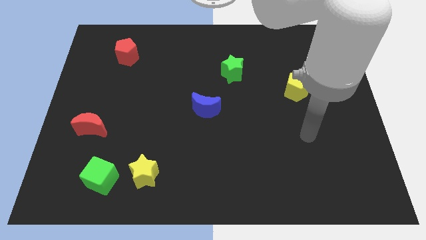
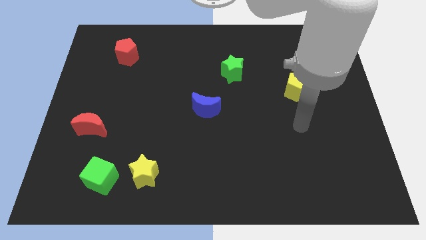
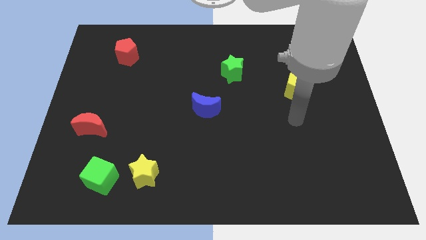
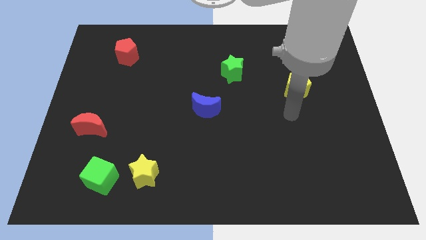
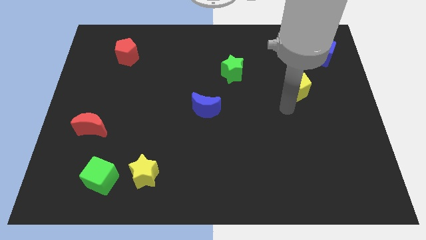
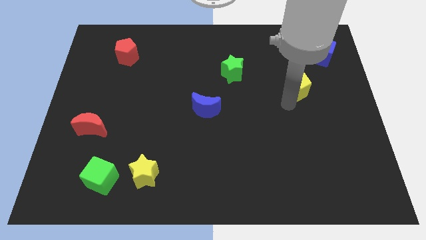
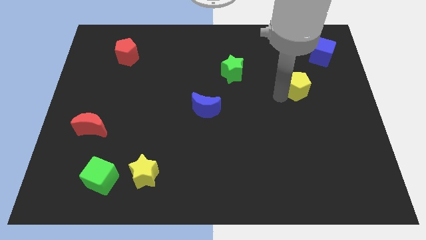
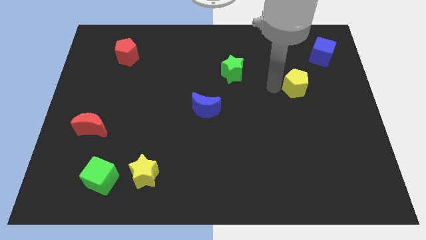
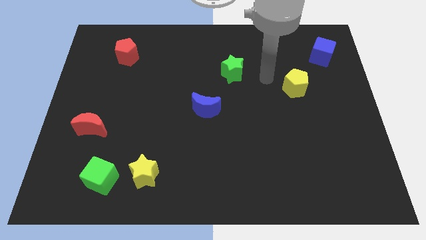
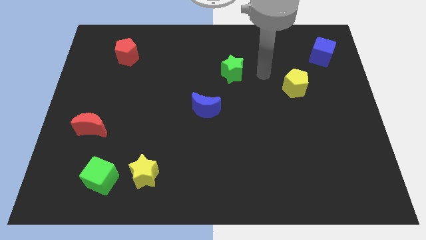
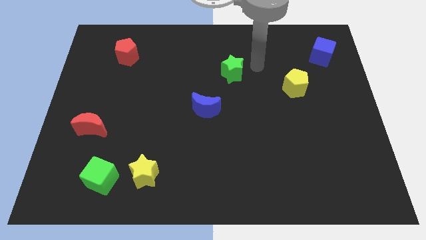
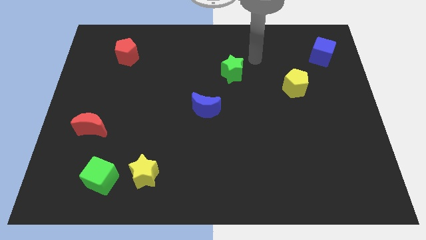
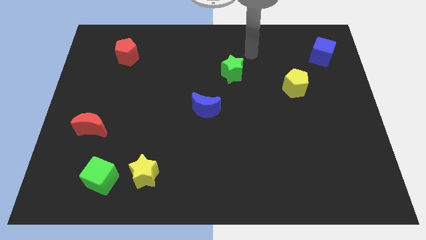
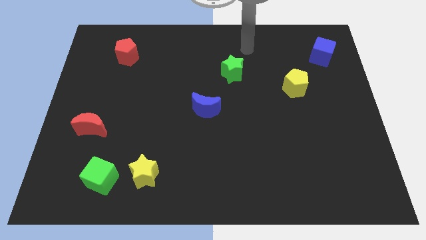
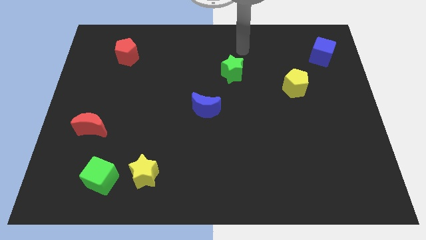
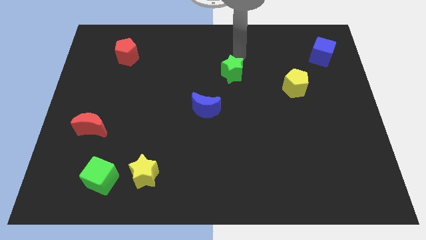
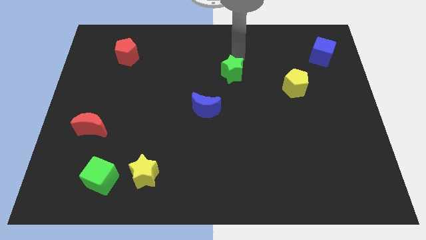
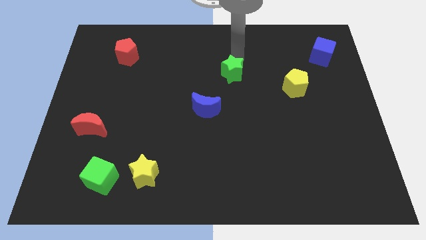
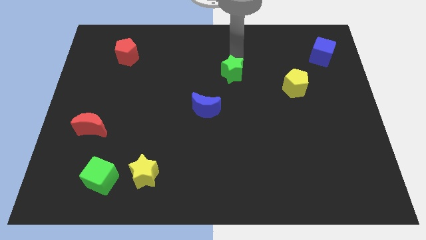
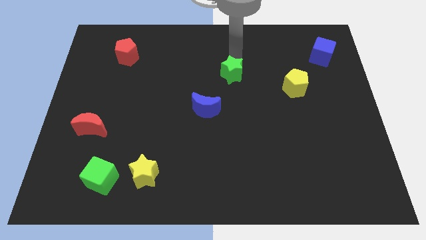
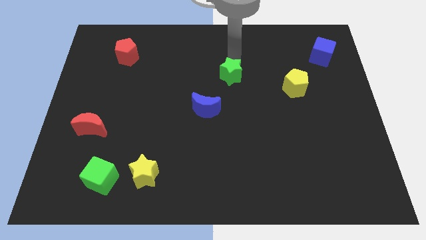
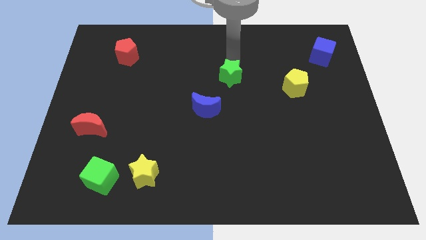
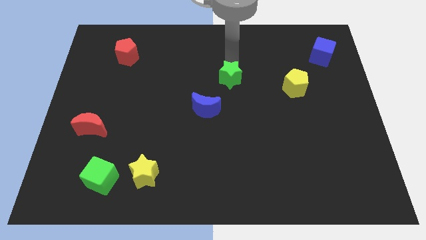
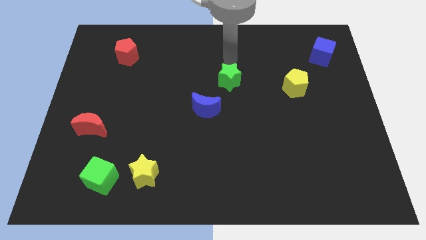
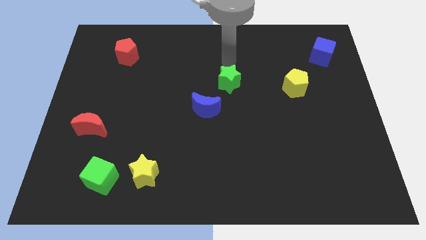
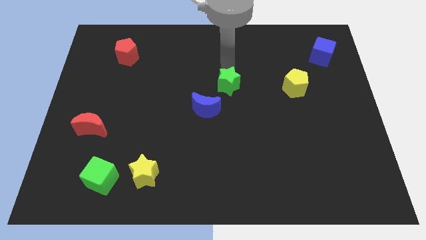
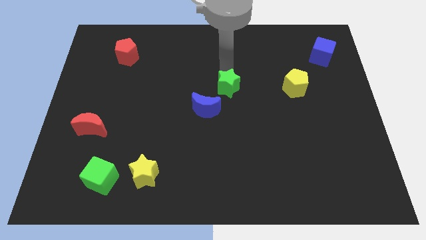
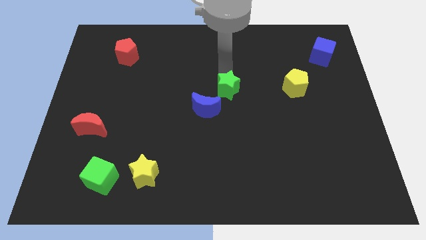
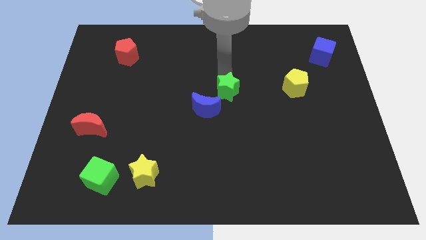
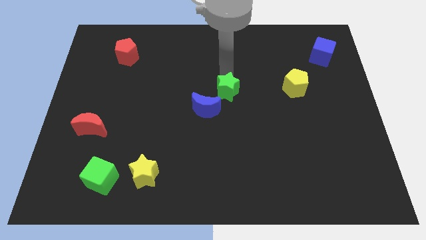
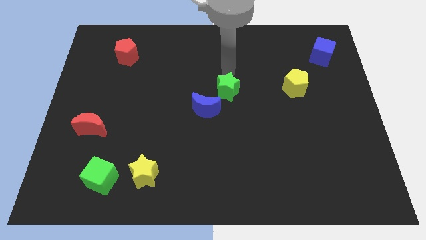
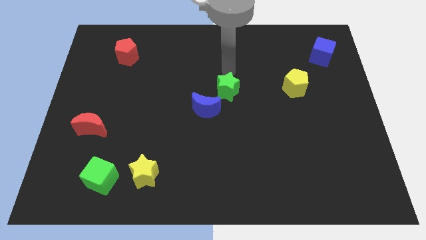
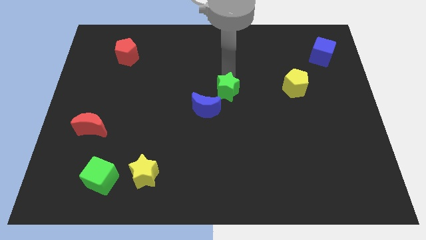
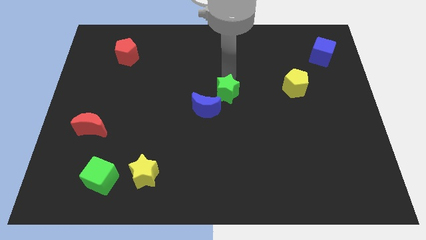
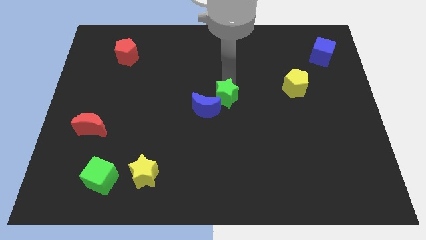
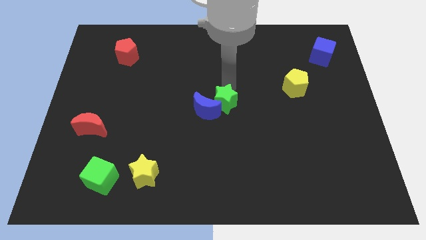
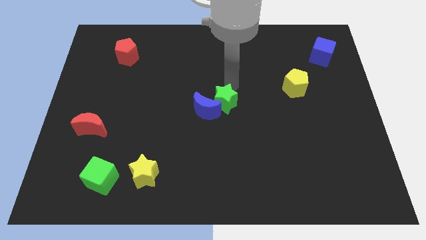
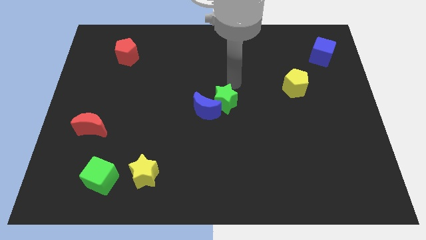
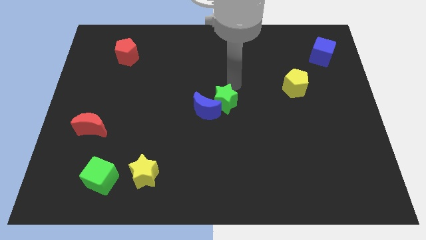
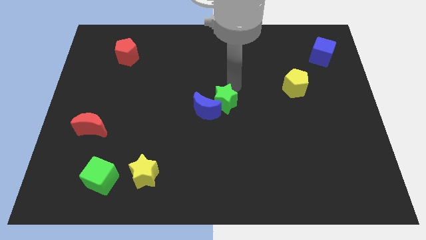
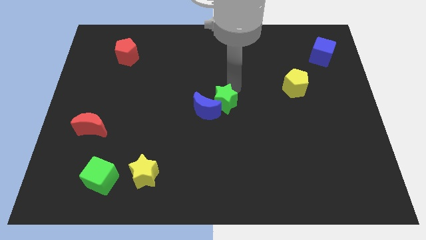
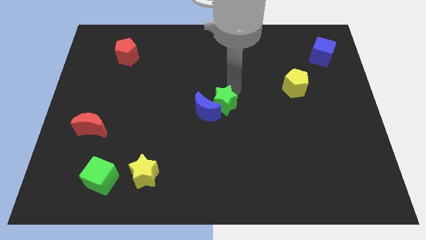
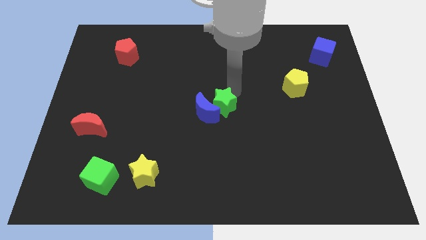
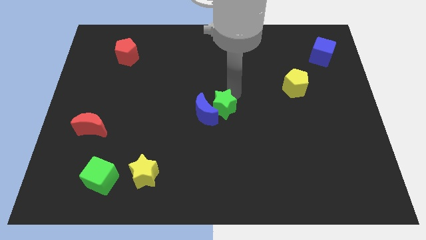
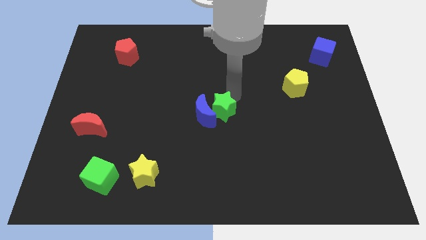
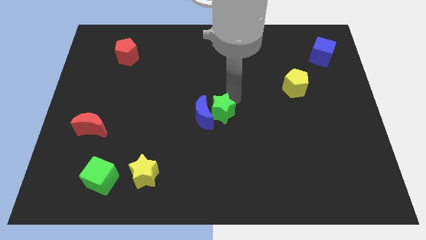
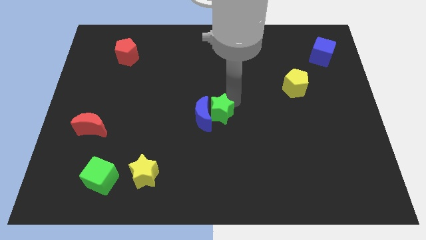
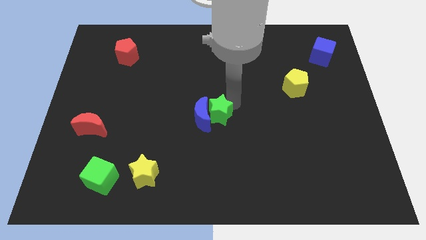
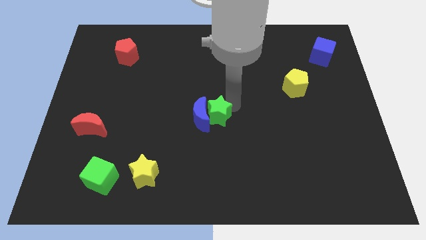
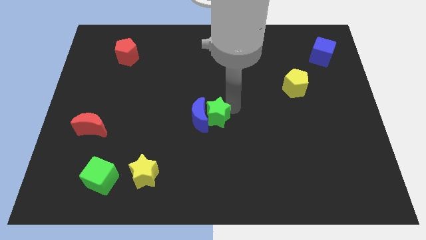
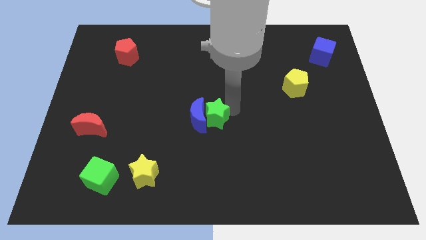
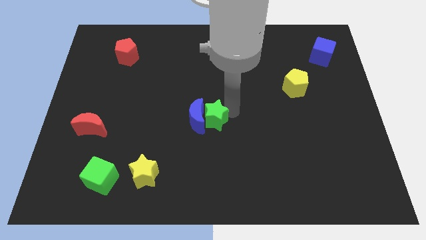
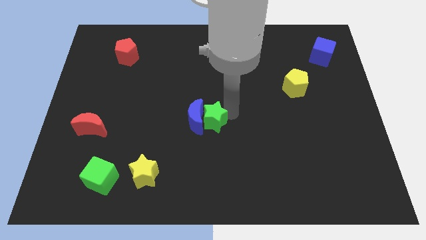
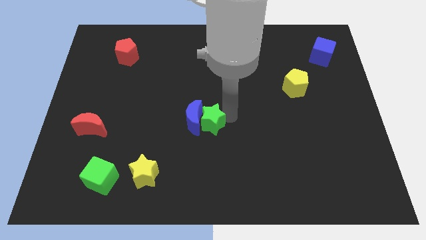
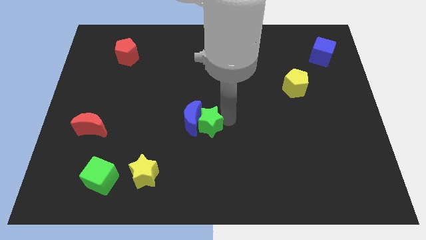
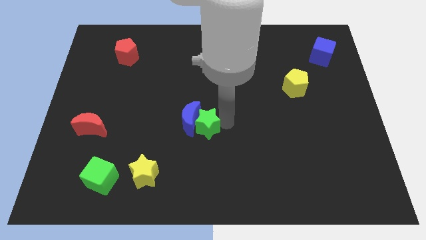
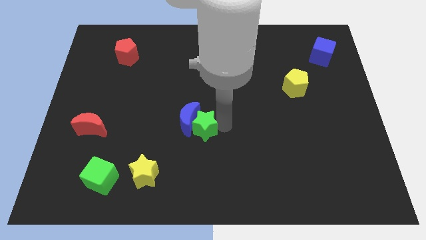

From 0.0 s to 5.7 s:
push the green star to the bottom of the blue moon

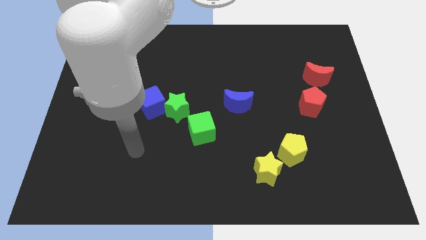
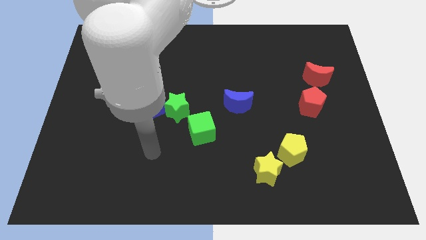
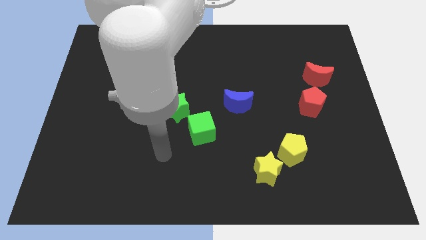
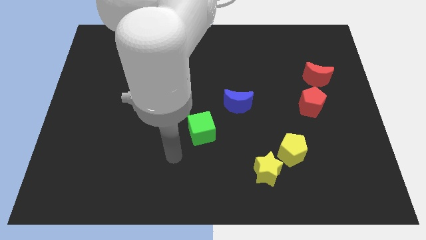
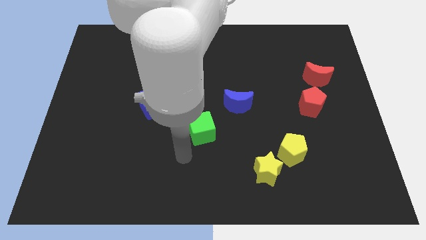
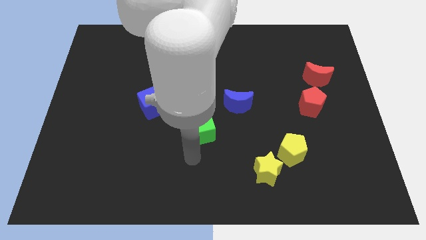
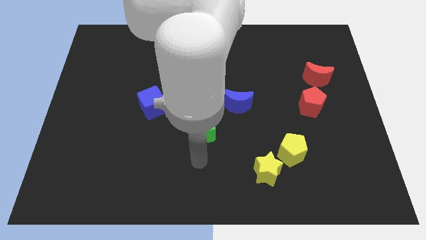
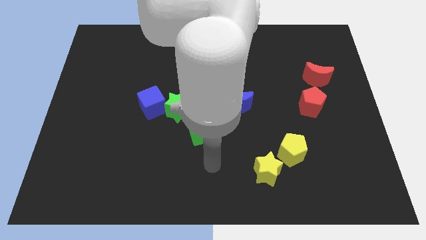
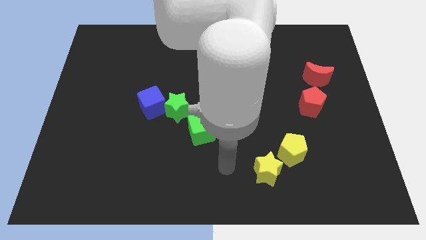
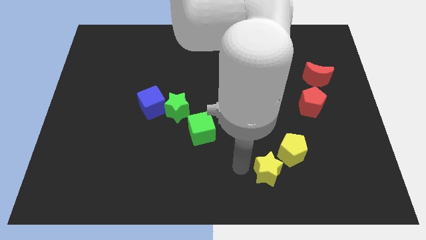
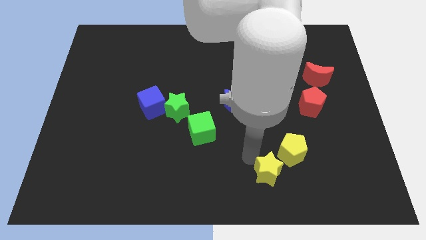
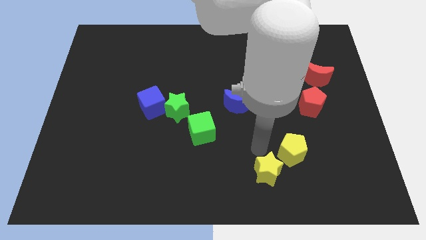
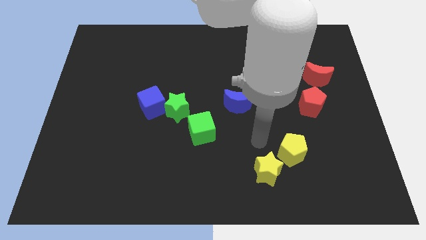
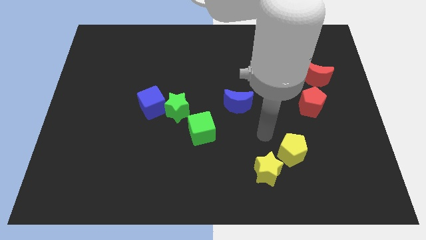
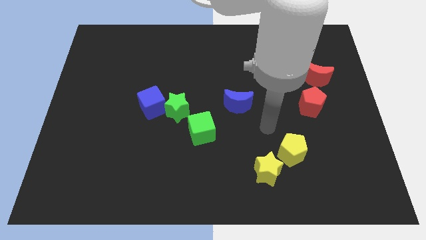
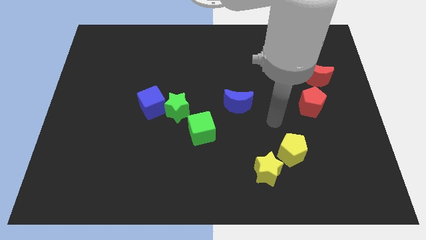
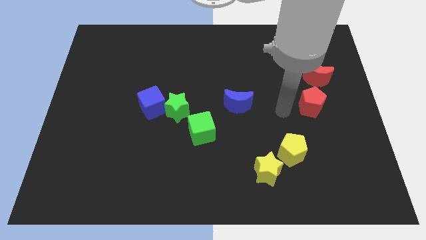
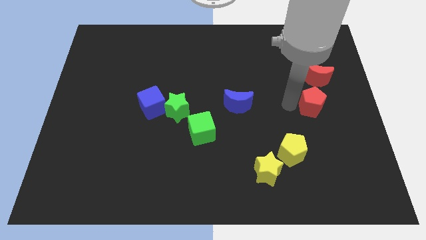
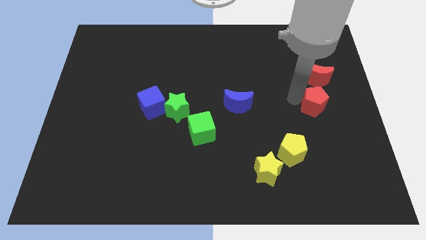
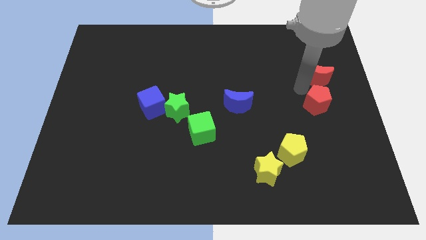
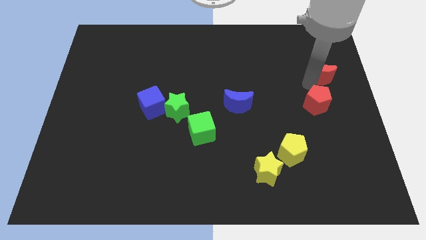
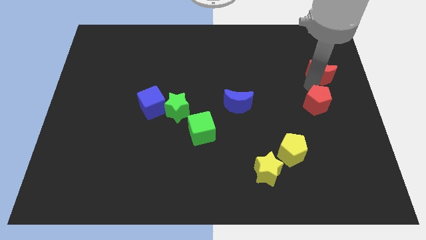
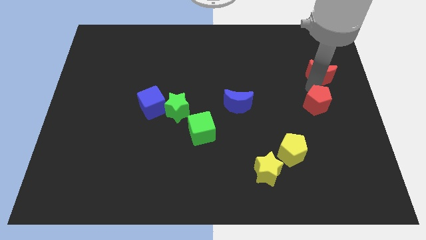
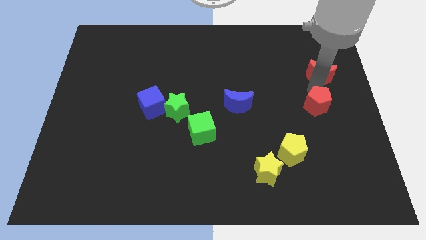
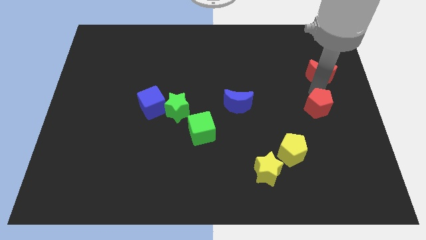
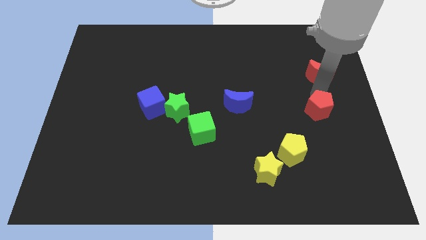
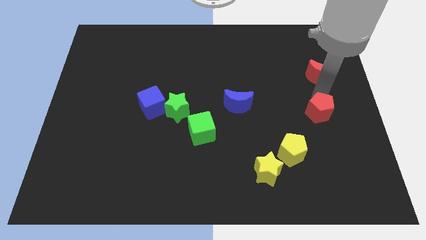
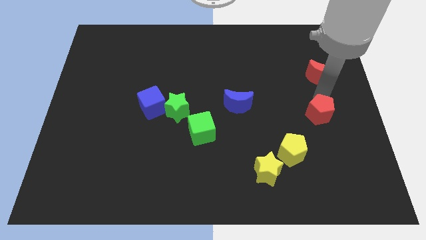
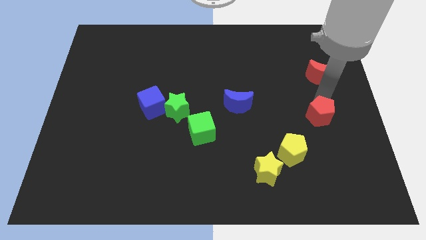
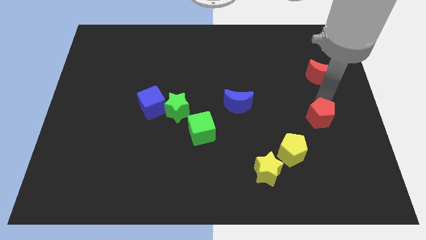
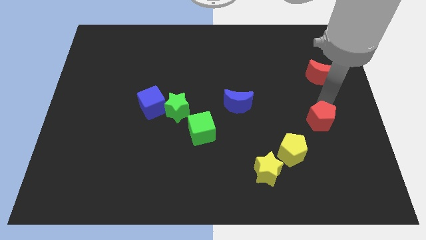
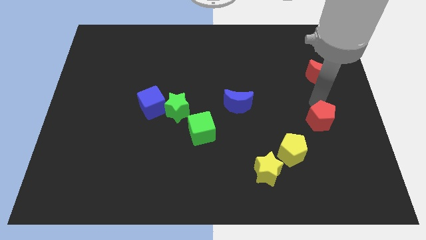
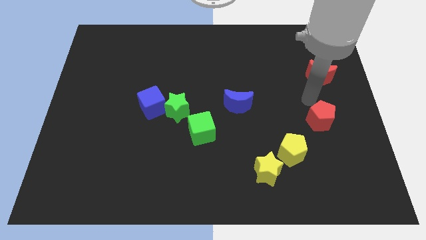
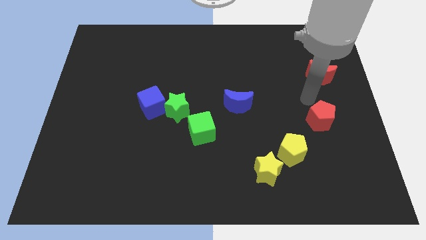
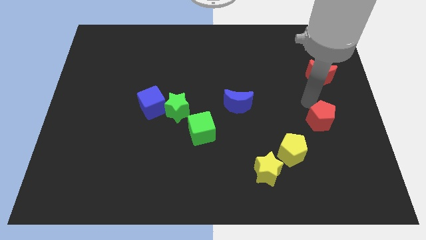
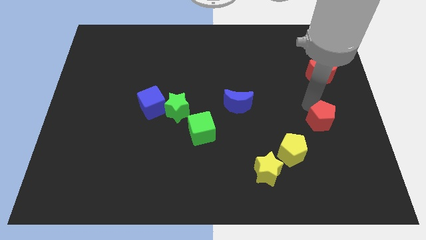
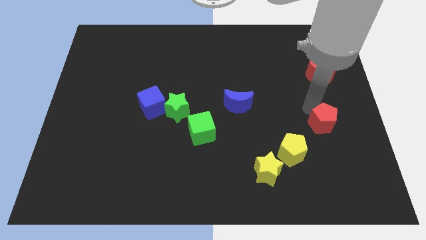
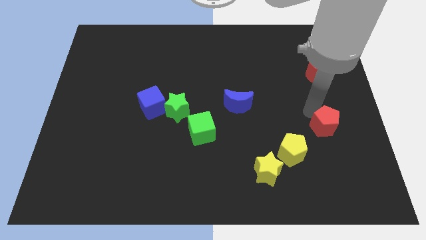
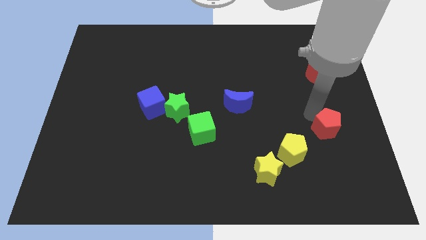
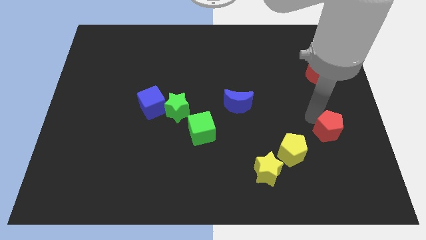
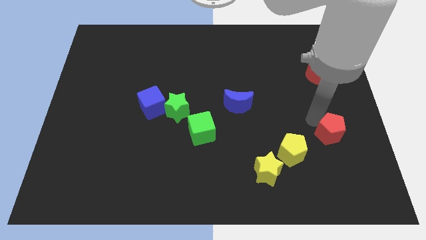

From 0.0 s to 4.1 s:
move the red pentagon to the right side of the yellow pentagon
